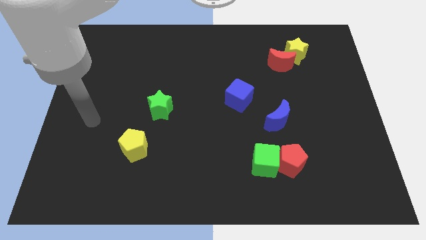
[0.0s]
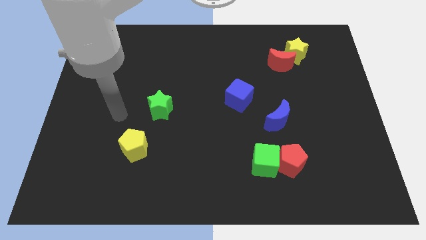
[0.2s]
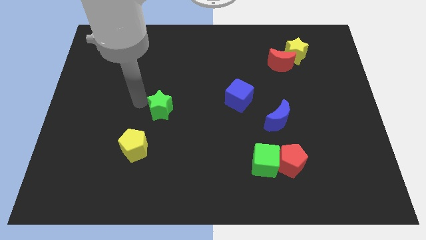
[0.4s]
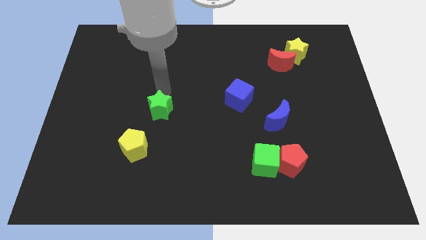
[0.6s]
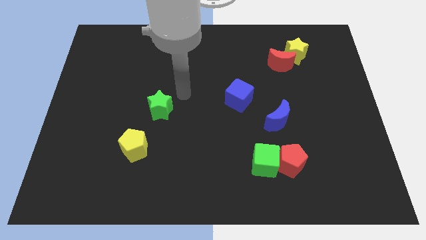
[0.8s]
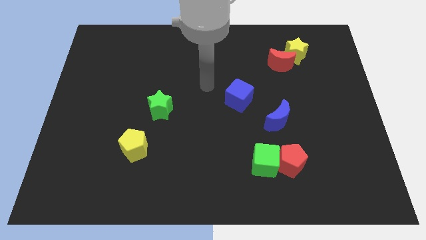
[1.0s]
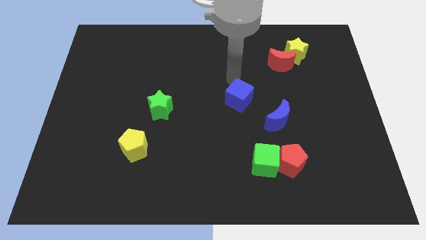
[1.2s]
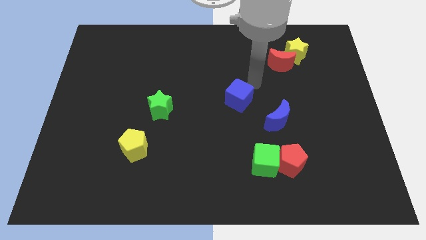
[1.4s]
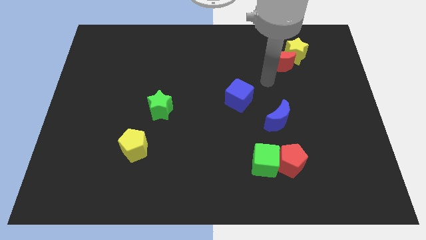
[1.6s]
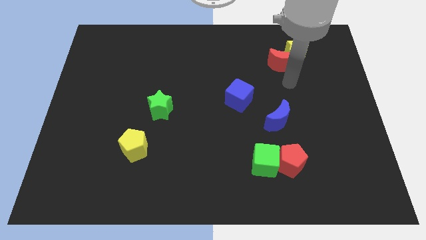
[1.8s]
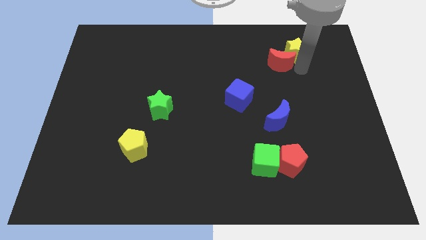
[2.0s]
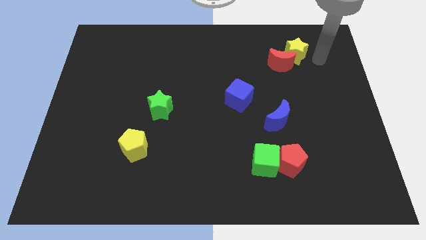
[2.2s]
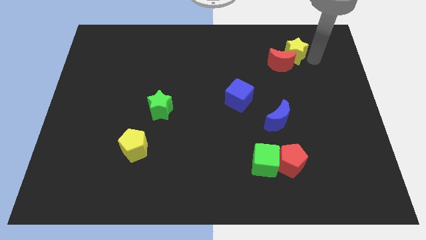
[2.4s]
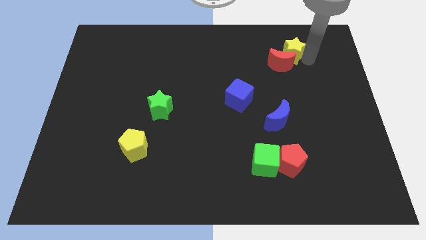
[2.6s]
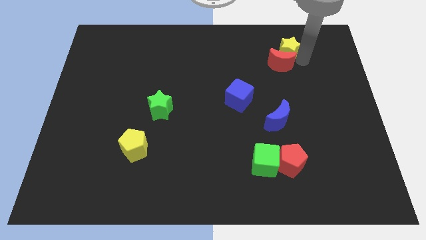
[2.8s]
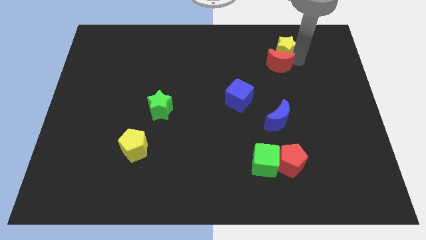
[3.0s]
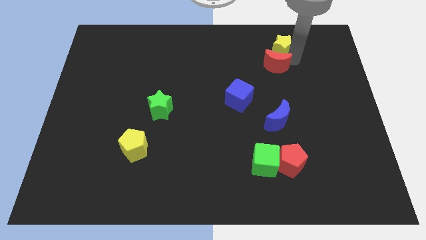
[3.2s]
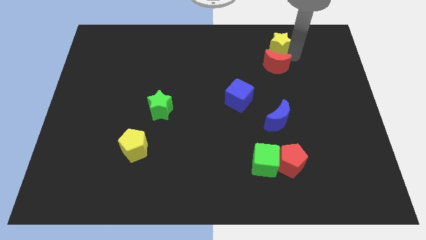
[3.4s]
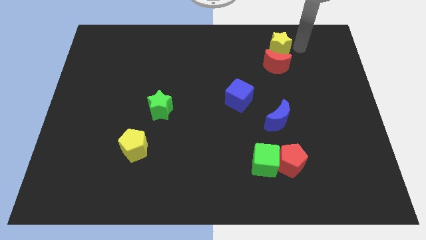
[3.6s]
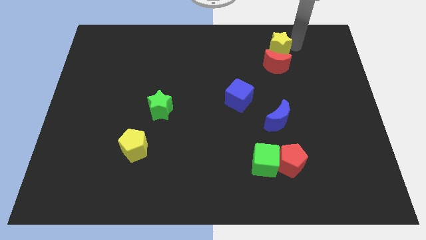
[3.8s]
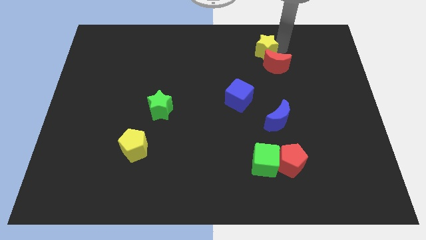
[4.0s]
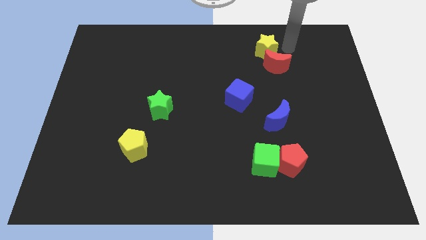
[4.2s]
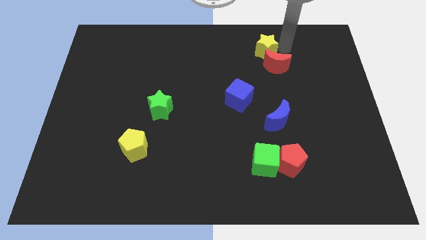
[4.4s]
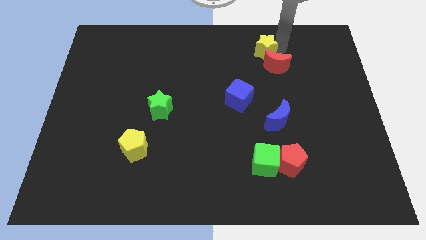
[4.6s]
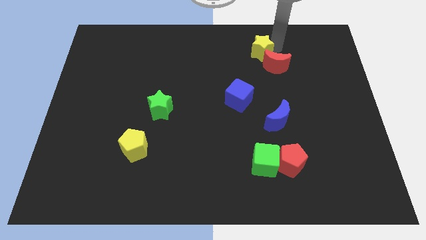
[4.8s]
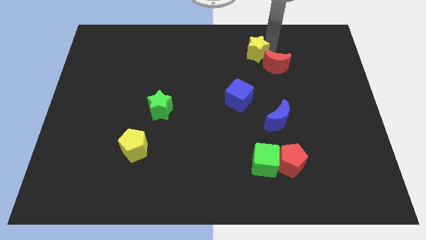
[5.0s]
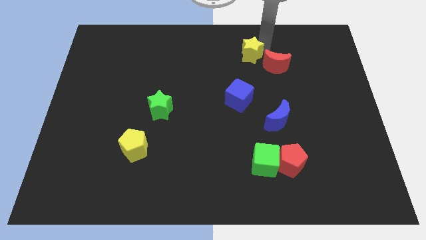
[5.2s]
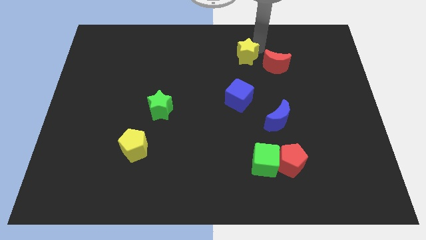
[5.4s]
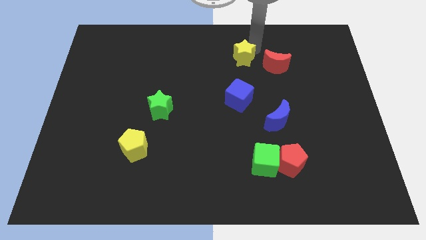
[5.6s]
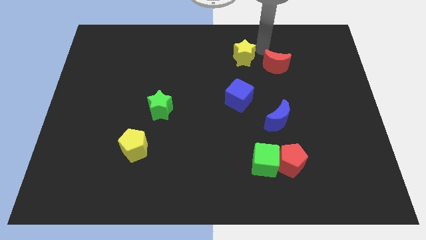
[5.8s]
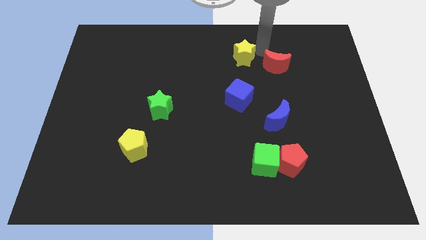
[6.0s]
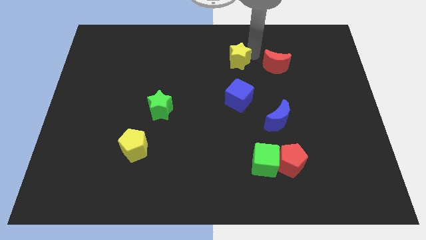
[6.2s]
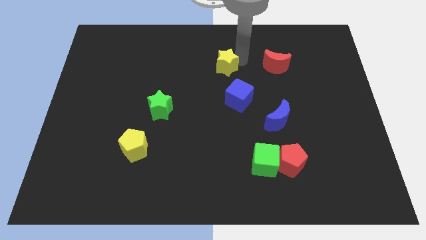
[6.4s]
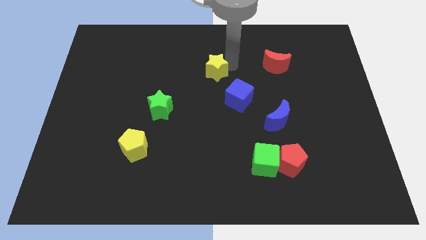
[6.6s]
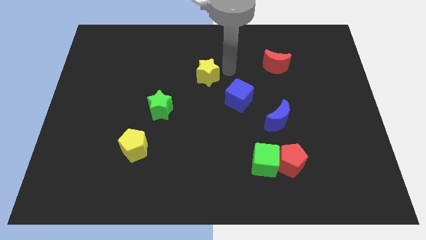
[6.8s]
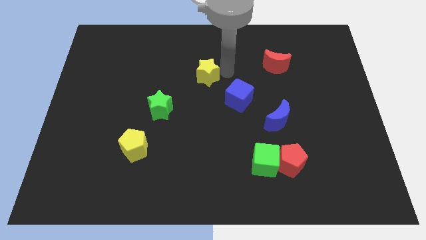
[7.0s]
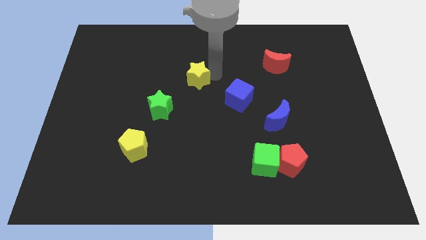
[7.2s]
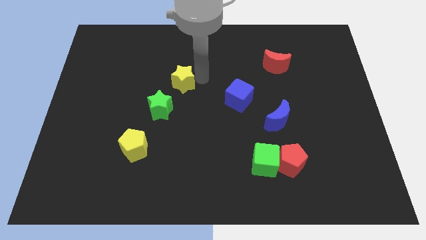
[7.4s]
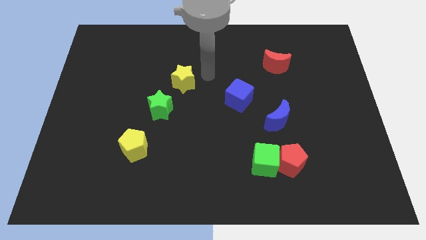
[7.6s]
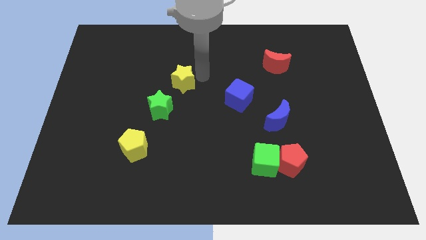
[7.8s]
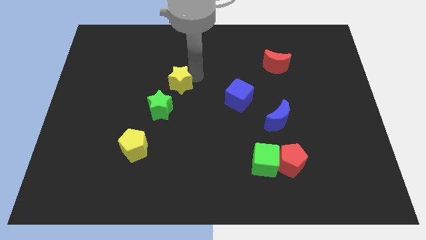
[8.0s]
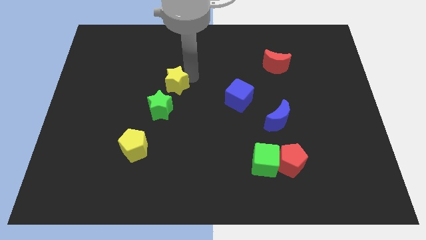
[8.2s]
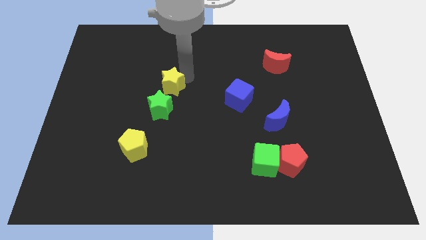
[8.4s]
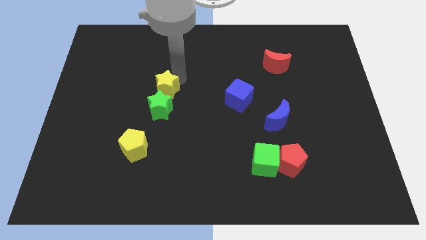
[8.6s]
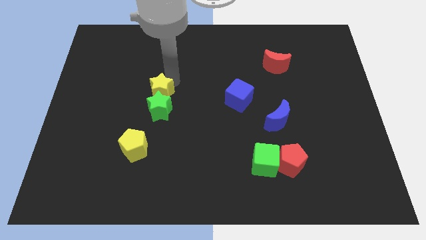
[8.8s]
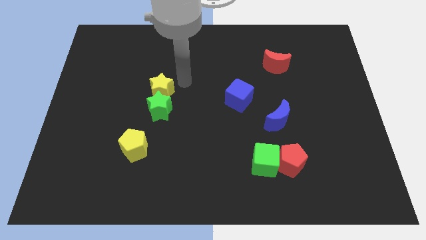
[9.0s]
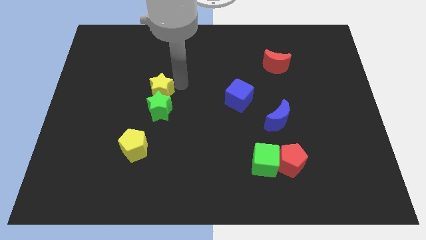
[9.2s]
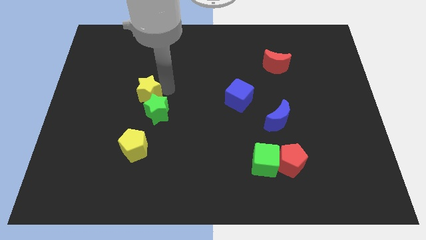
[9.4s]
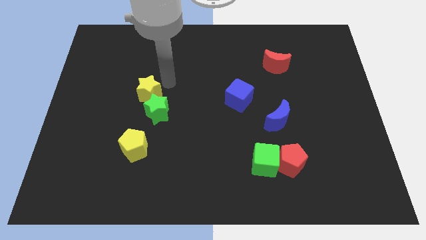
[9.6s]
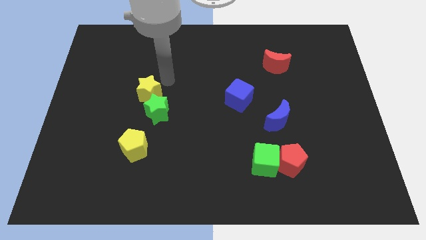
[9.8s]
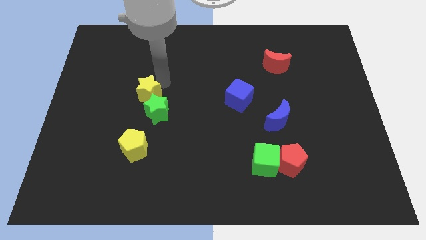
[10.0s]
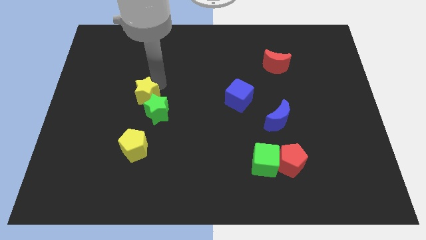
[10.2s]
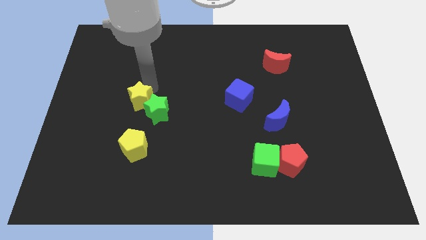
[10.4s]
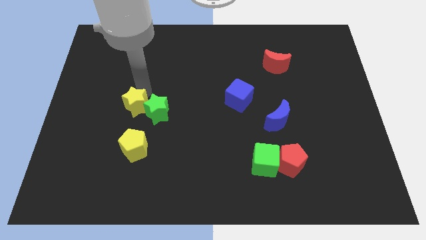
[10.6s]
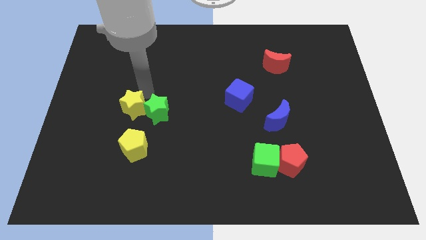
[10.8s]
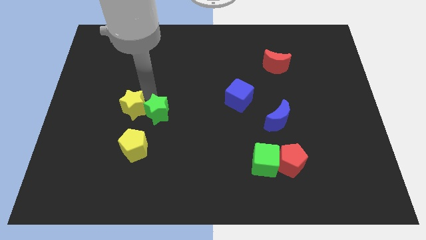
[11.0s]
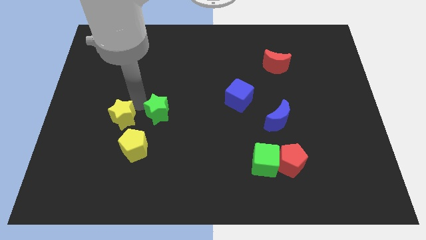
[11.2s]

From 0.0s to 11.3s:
move the yellow star to the top left side of the yellow pentagon

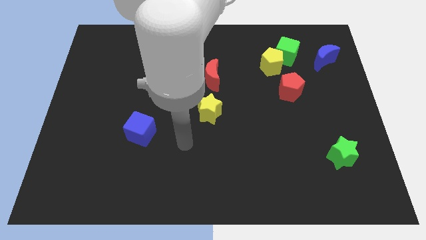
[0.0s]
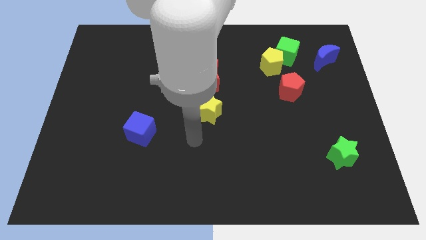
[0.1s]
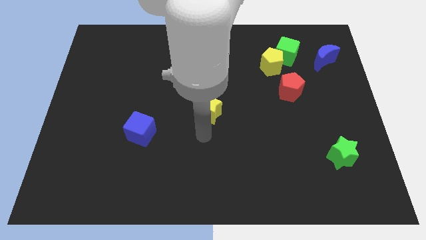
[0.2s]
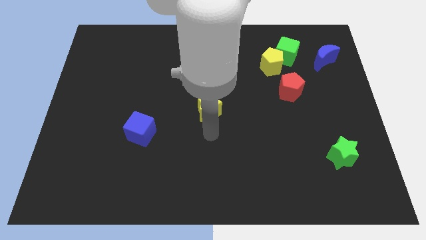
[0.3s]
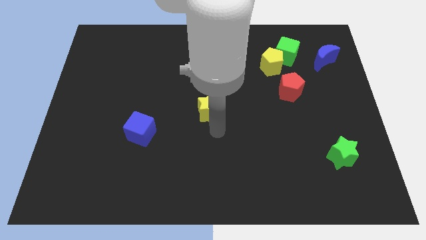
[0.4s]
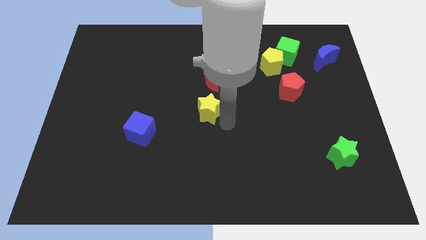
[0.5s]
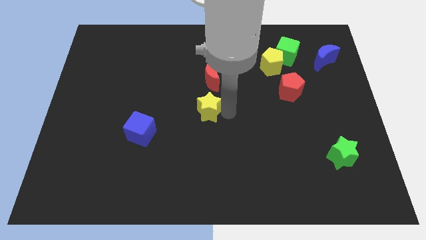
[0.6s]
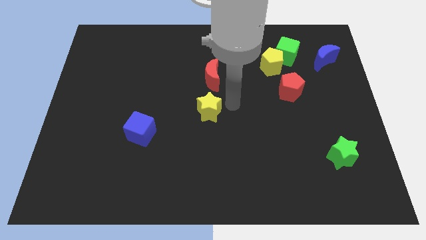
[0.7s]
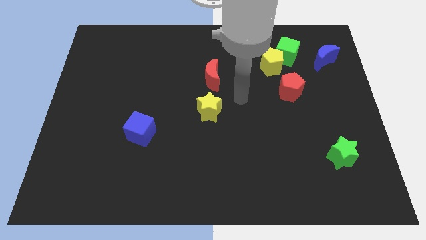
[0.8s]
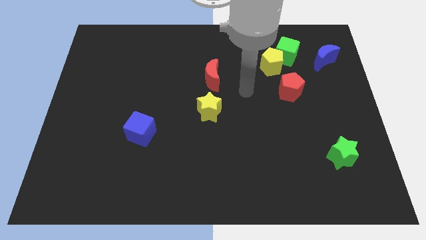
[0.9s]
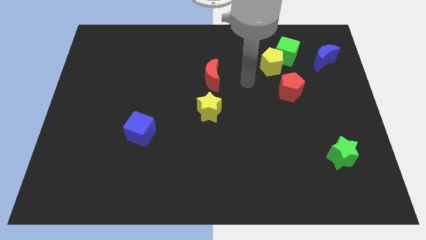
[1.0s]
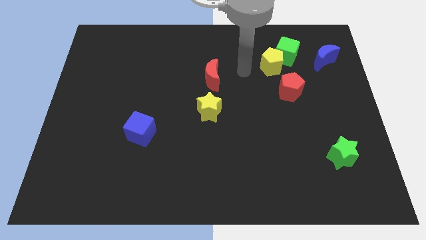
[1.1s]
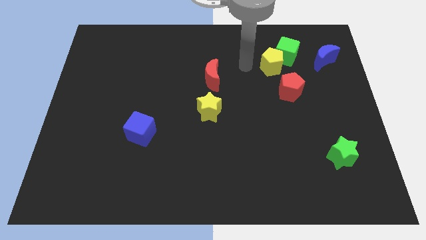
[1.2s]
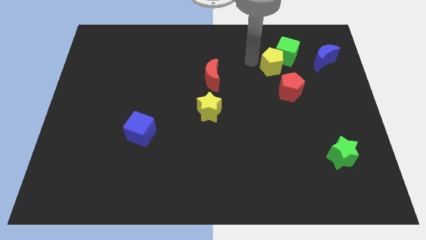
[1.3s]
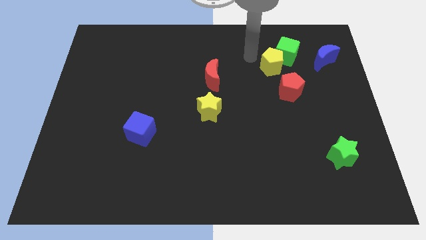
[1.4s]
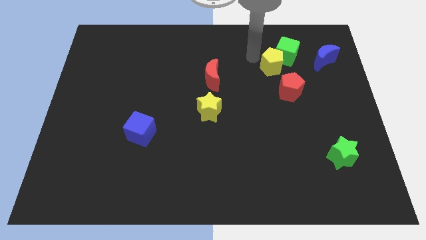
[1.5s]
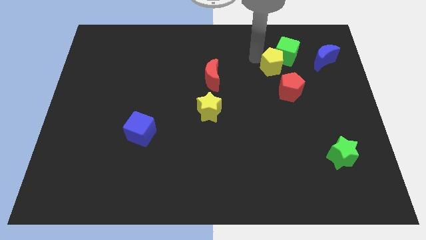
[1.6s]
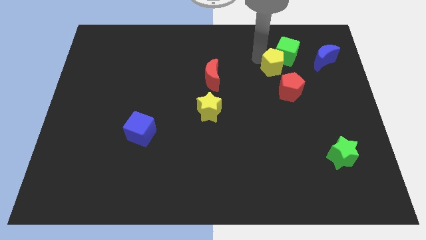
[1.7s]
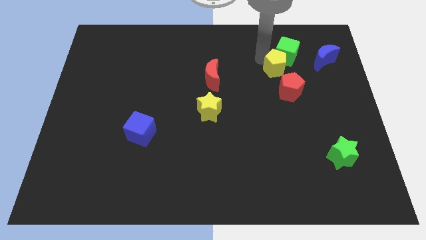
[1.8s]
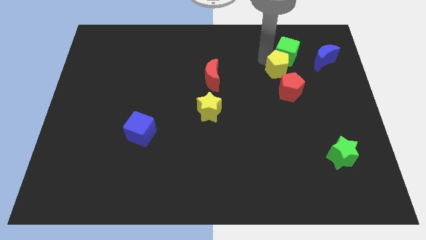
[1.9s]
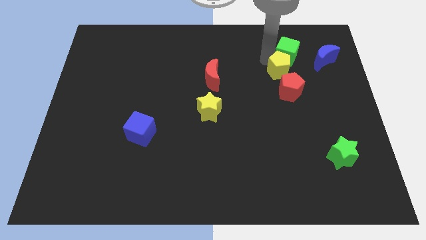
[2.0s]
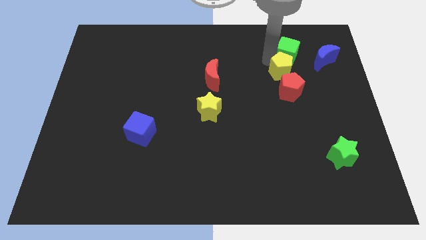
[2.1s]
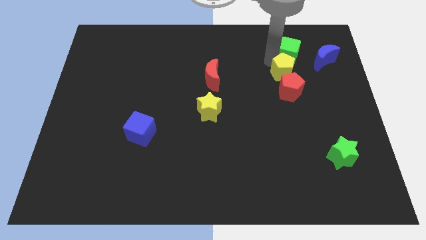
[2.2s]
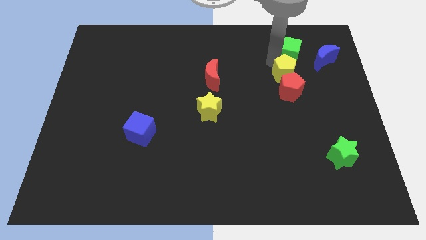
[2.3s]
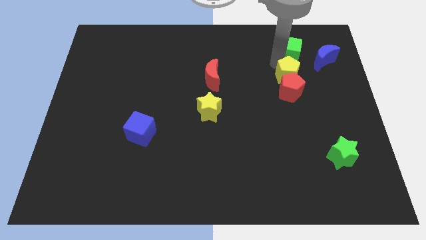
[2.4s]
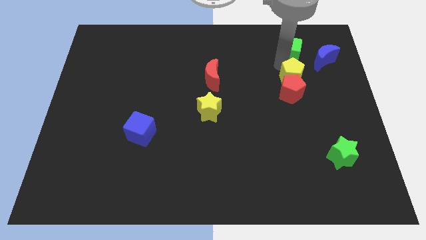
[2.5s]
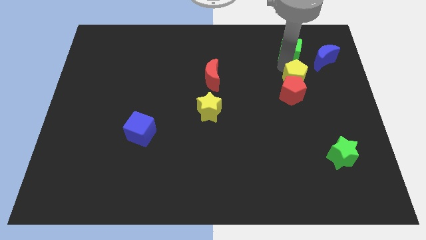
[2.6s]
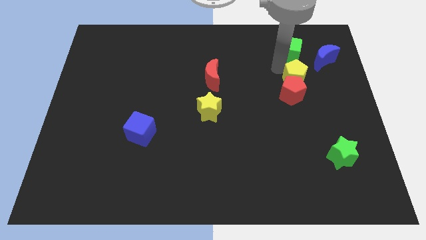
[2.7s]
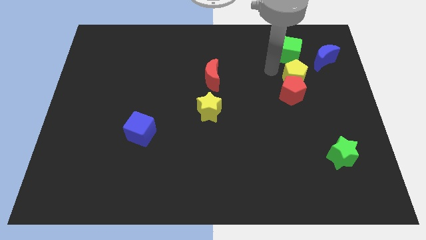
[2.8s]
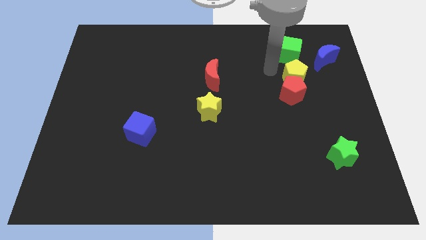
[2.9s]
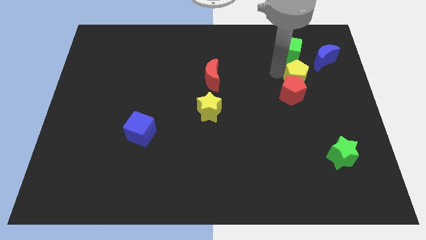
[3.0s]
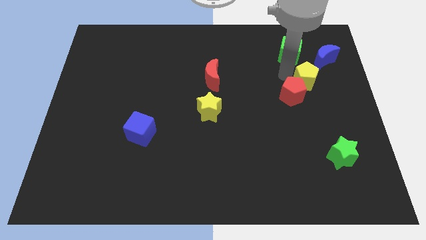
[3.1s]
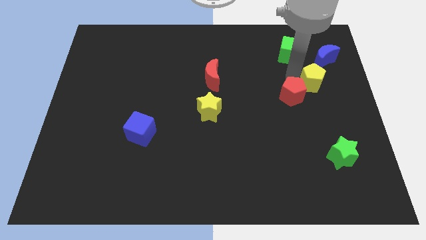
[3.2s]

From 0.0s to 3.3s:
move the yellow pentagon to the bottom of the blue moon
